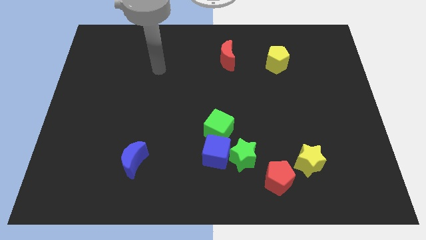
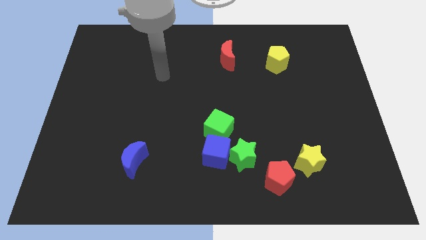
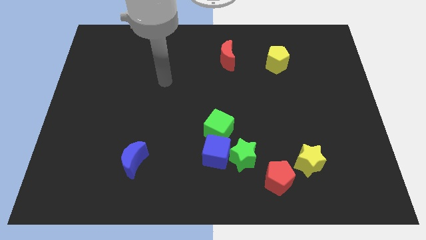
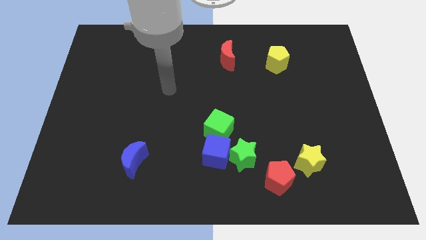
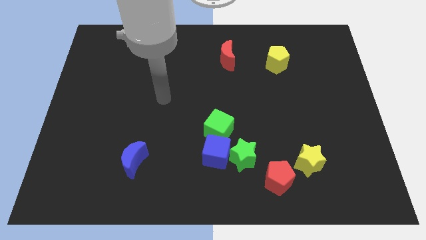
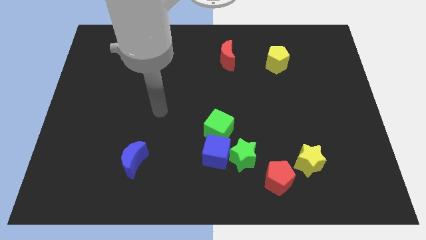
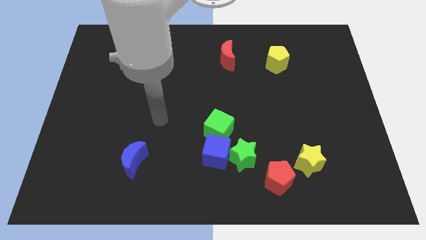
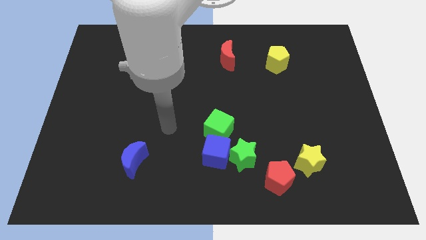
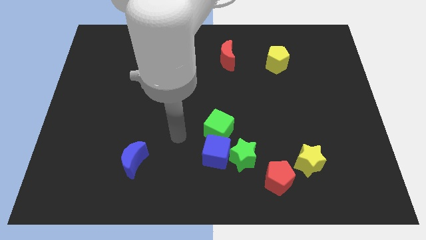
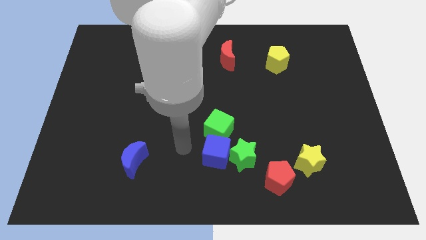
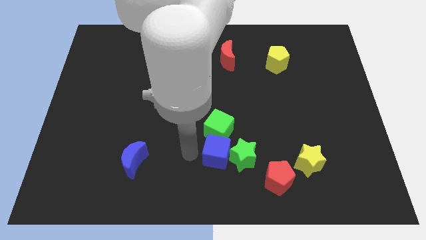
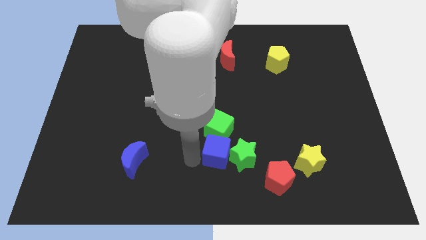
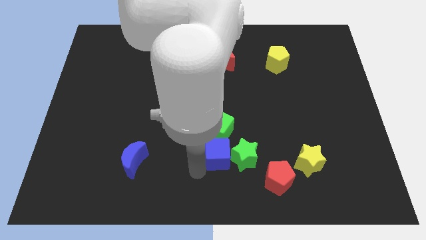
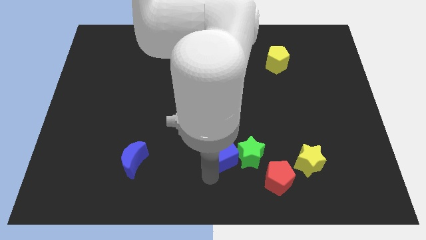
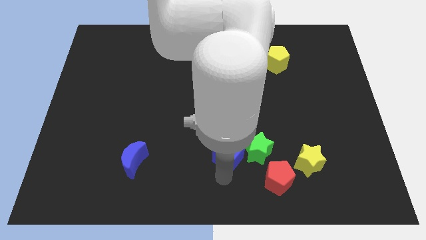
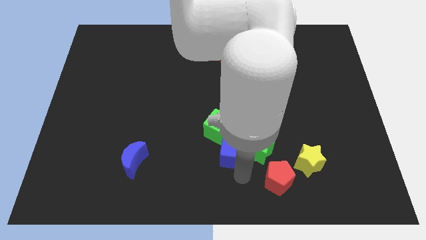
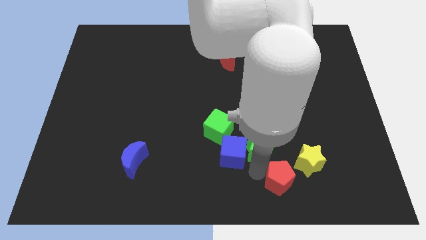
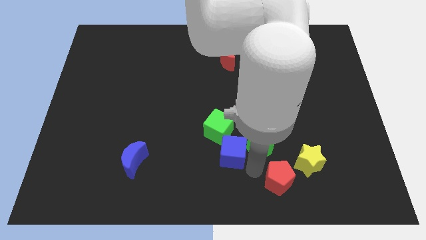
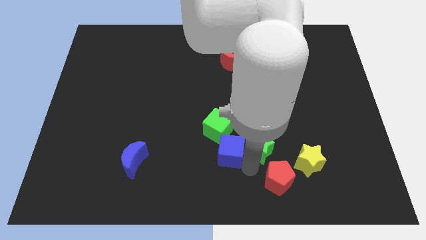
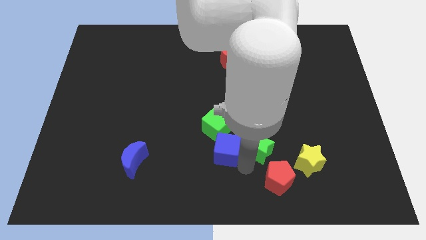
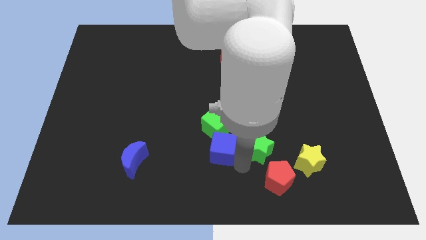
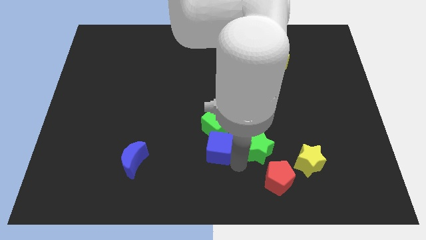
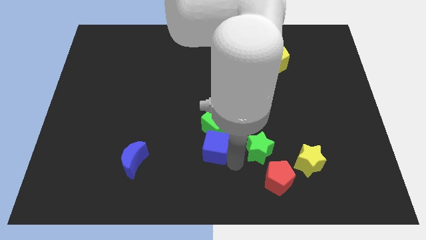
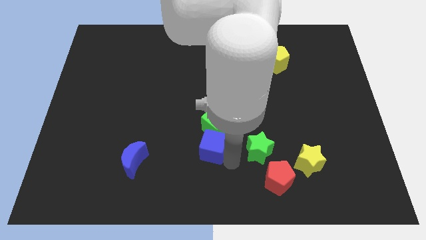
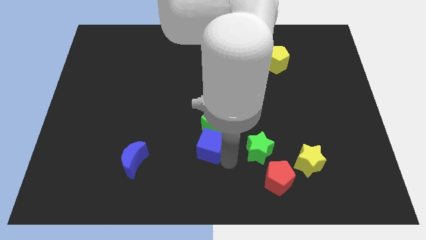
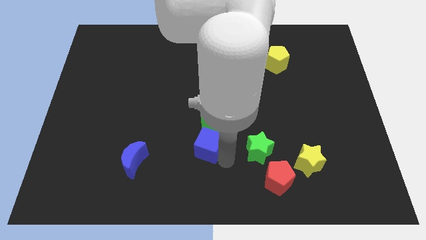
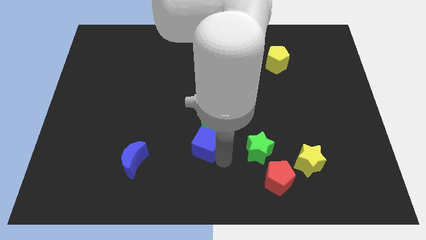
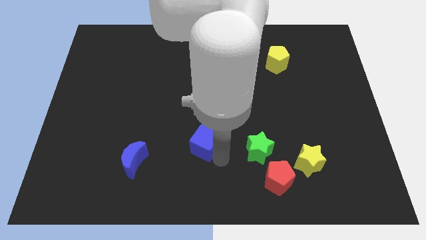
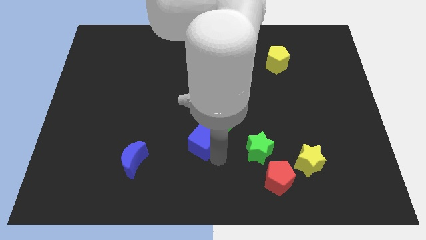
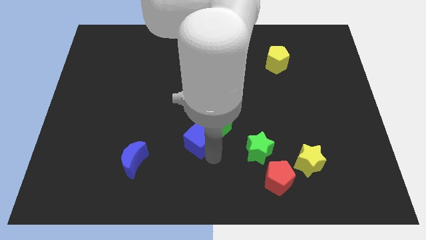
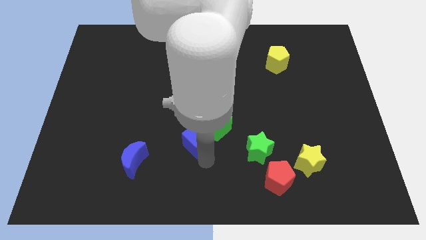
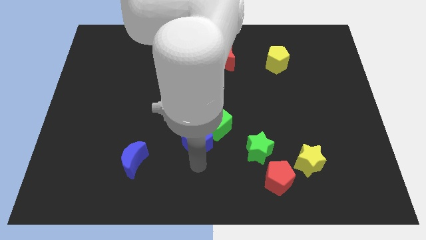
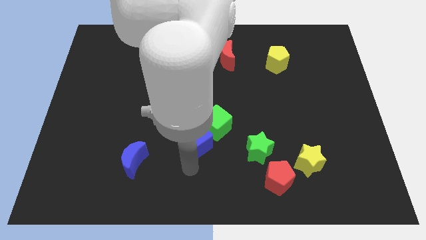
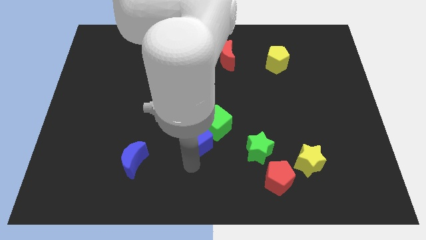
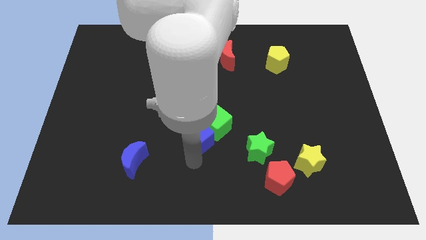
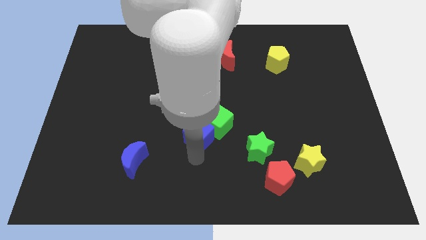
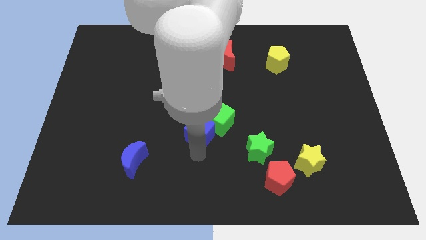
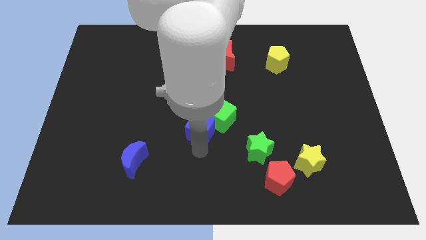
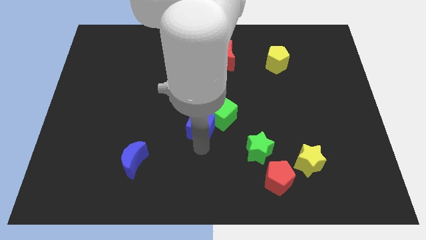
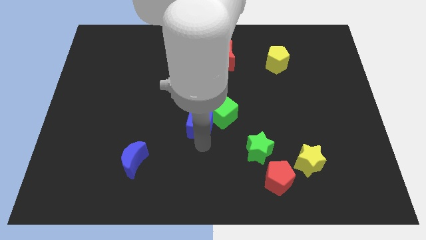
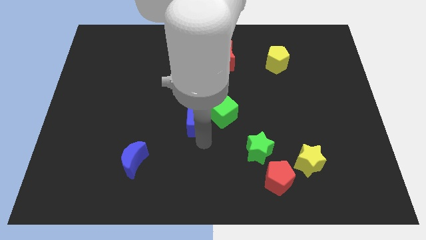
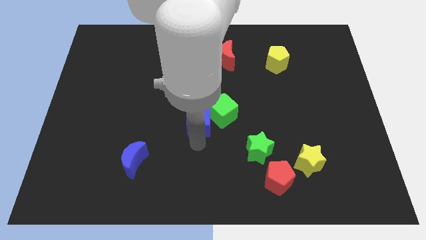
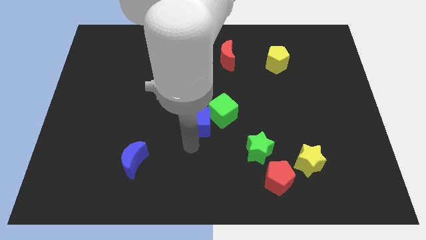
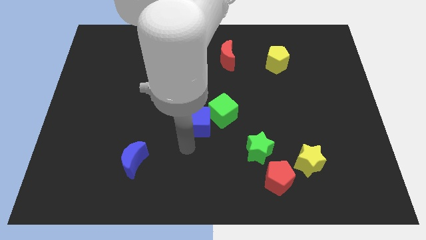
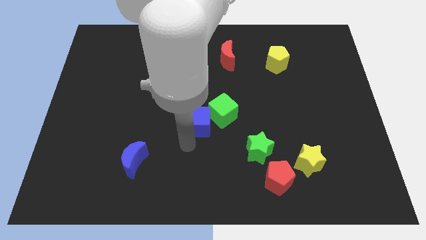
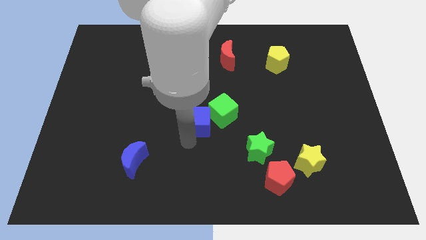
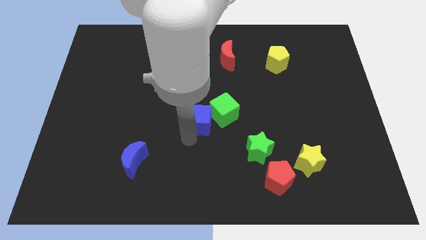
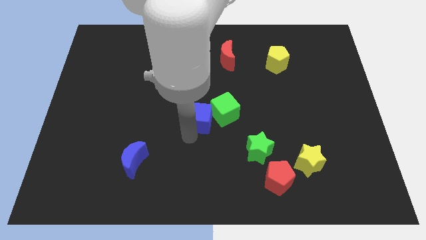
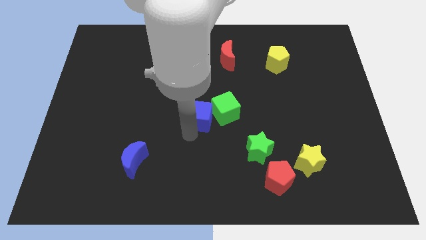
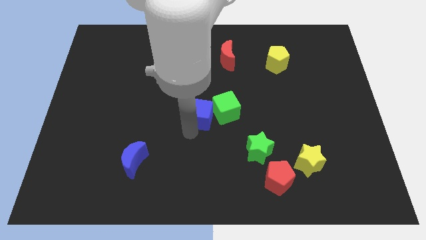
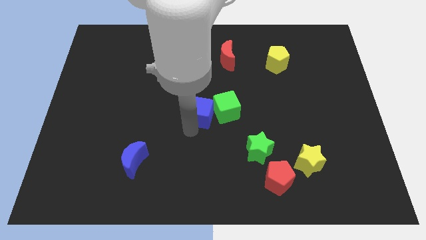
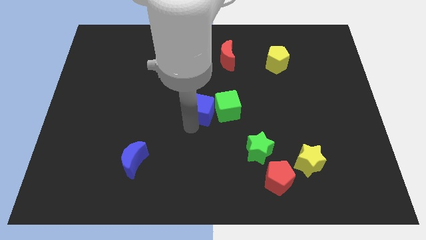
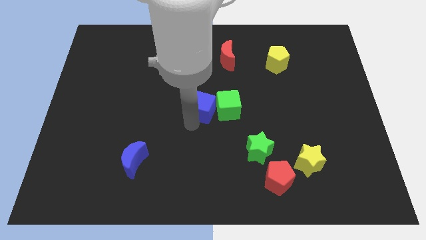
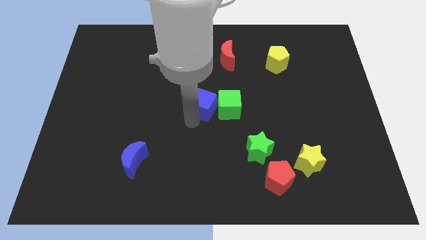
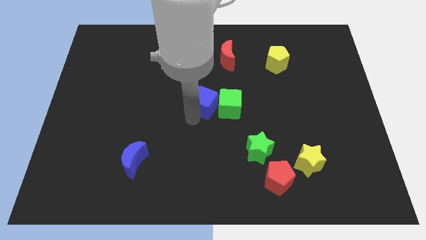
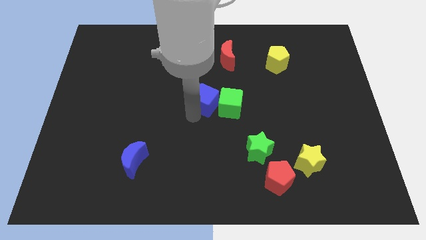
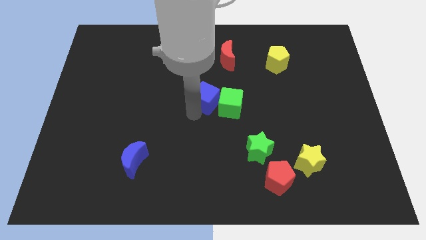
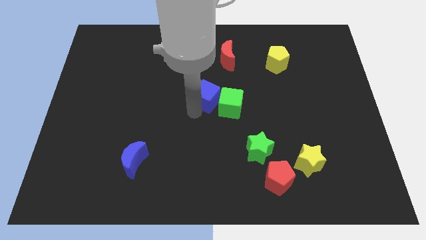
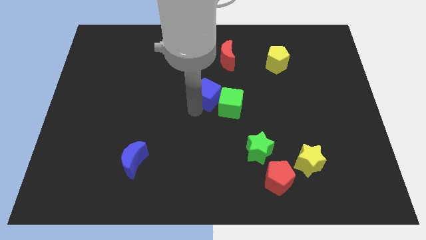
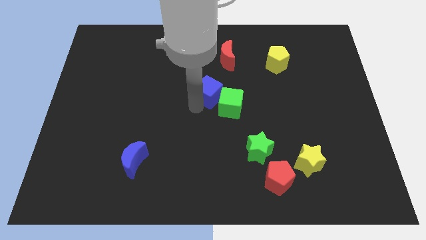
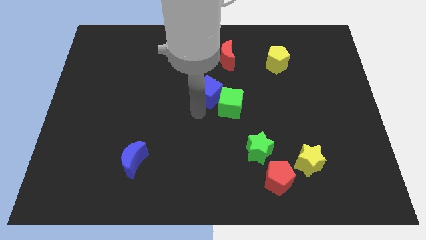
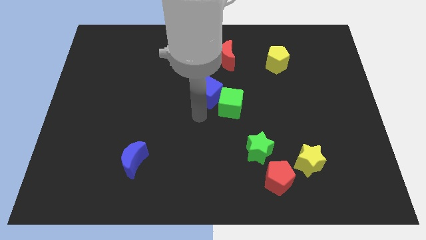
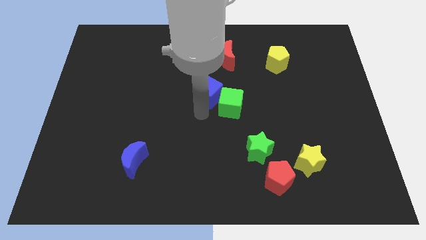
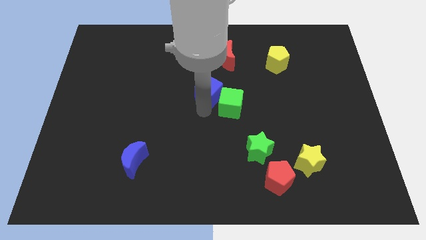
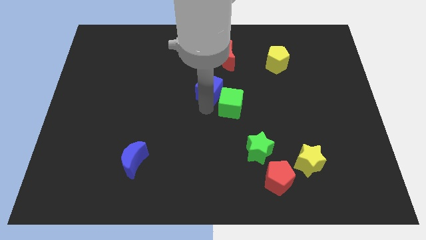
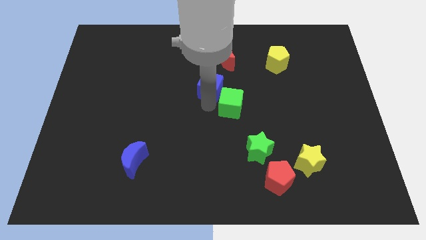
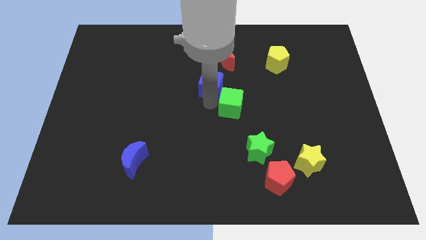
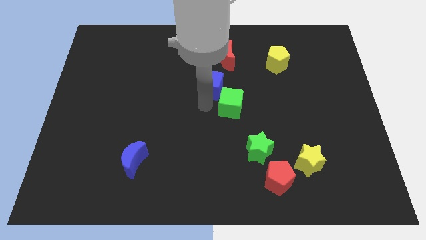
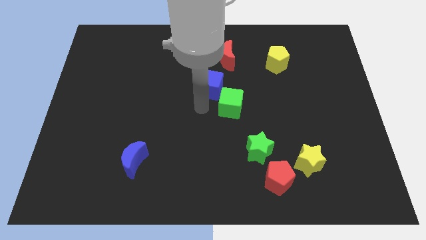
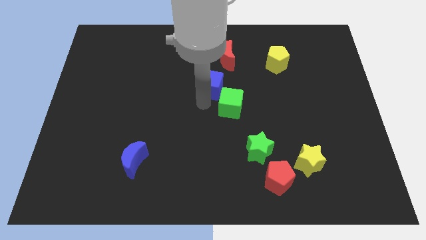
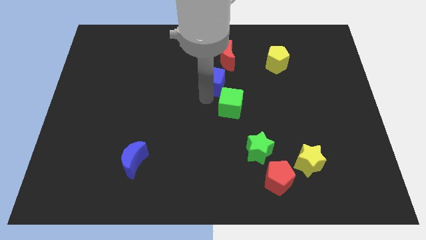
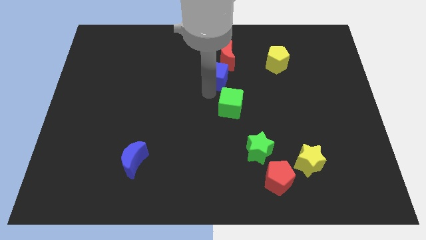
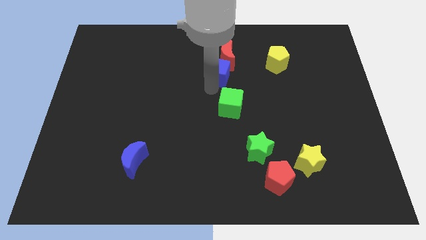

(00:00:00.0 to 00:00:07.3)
move the blue cube next to the red moon
